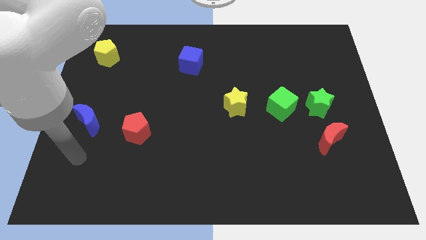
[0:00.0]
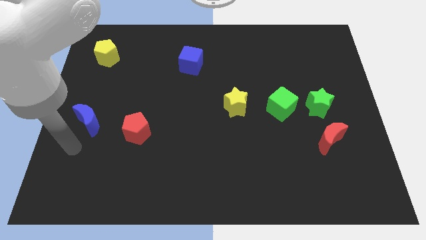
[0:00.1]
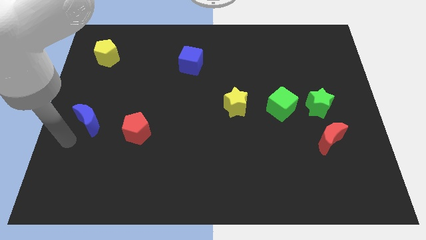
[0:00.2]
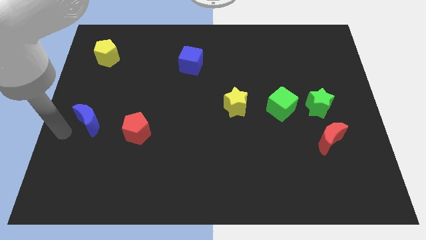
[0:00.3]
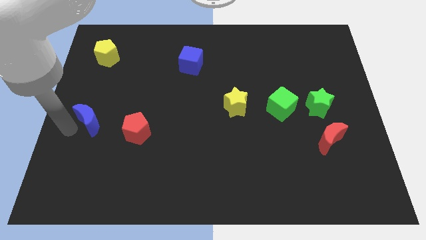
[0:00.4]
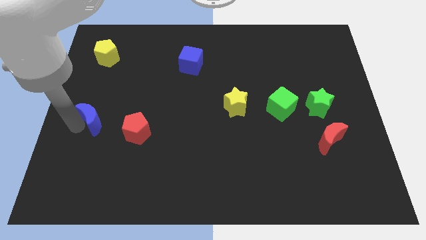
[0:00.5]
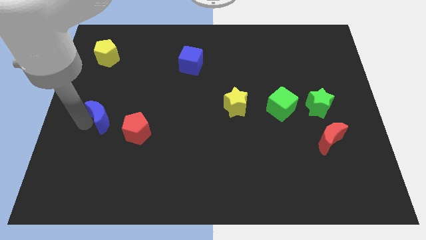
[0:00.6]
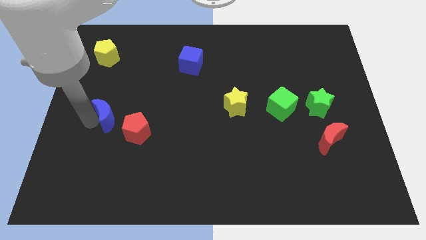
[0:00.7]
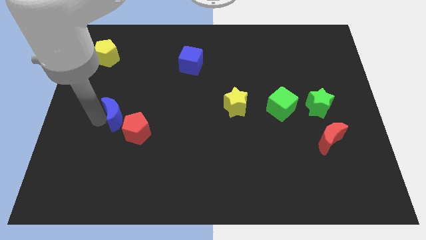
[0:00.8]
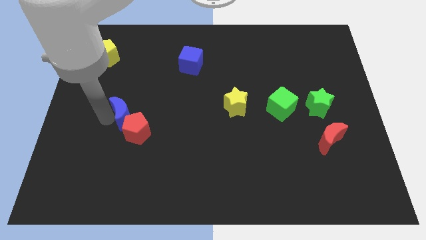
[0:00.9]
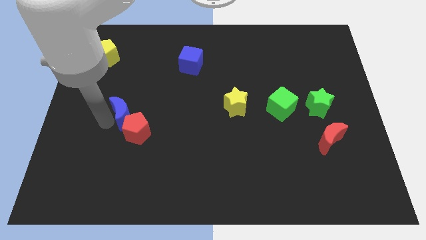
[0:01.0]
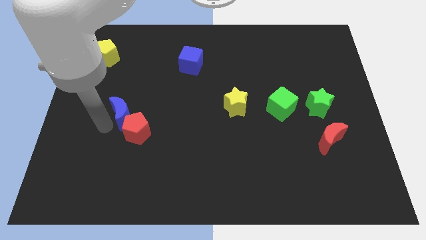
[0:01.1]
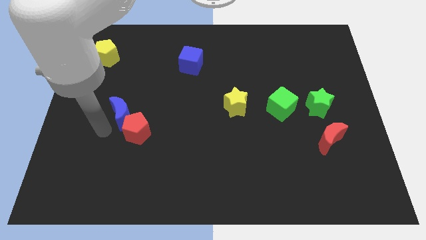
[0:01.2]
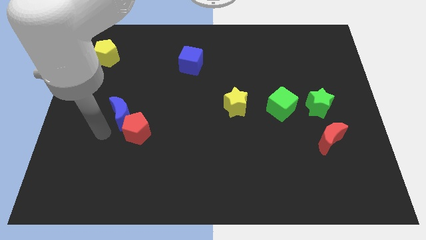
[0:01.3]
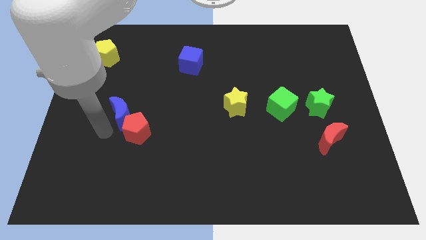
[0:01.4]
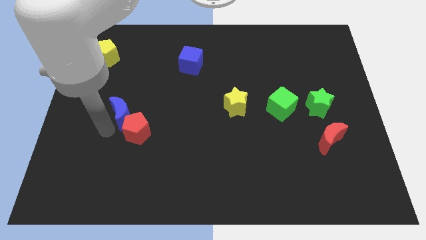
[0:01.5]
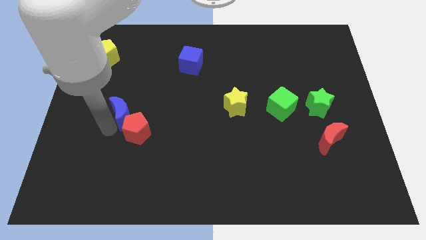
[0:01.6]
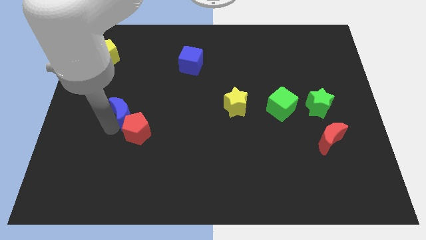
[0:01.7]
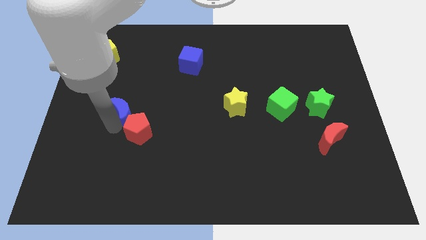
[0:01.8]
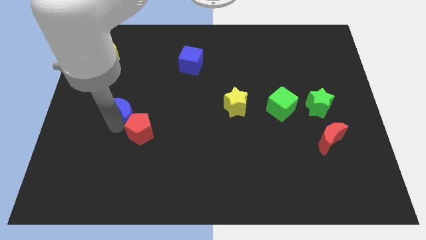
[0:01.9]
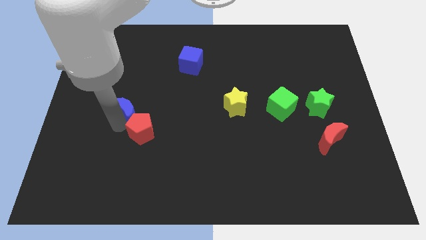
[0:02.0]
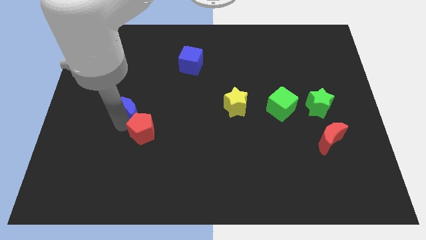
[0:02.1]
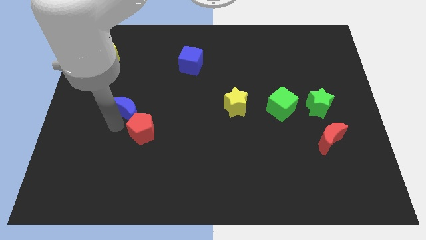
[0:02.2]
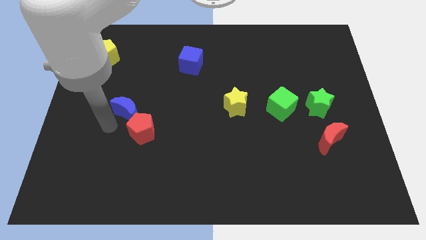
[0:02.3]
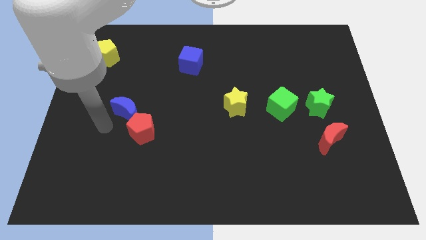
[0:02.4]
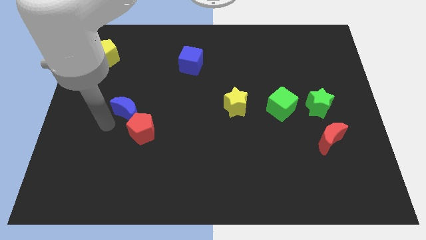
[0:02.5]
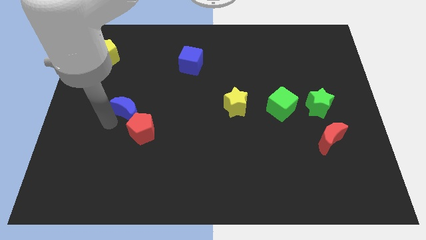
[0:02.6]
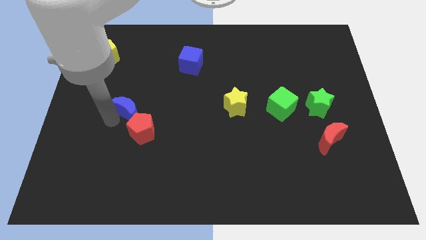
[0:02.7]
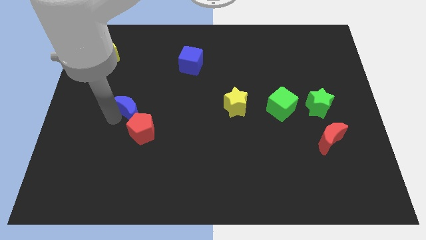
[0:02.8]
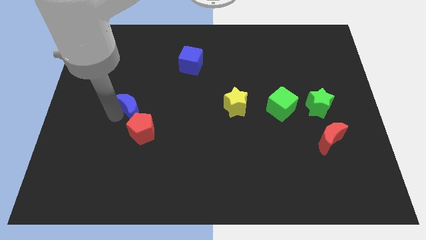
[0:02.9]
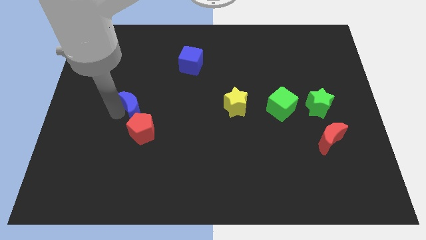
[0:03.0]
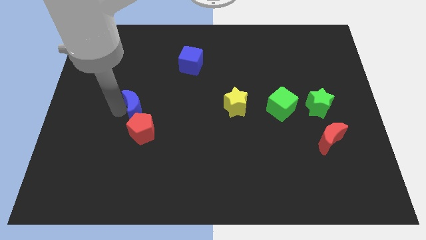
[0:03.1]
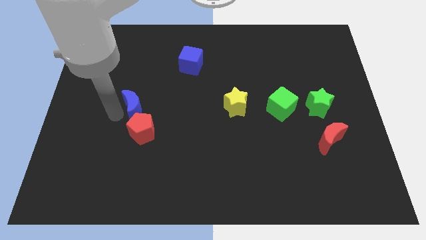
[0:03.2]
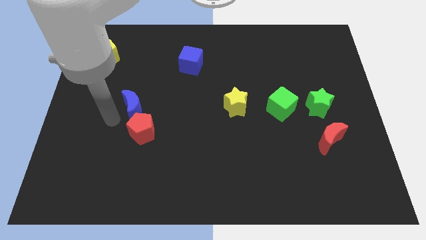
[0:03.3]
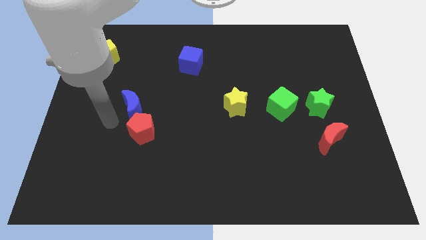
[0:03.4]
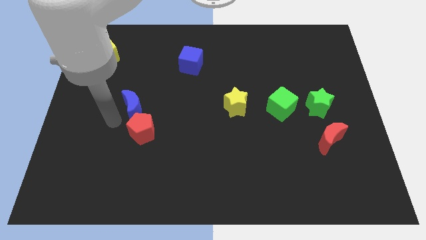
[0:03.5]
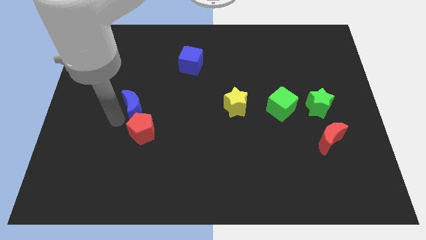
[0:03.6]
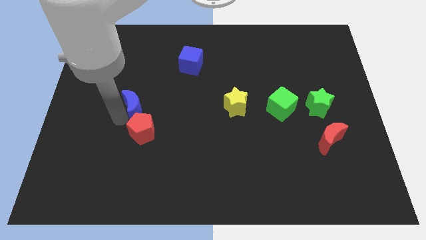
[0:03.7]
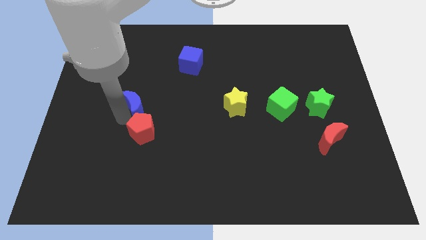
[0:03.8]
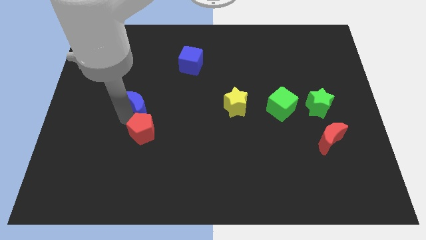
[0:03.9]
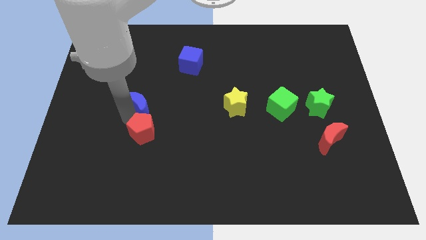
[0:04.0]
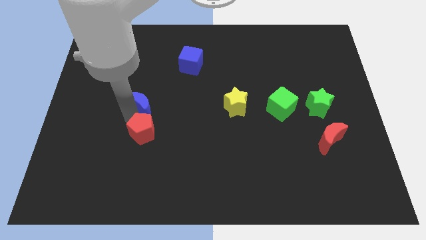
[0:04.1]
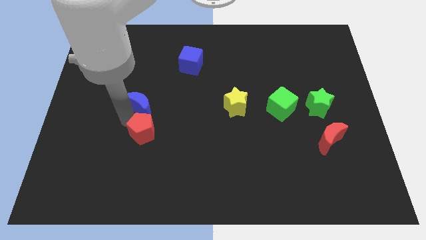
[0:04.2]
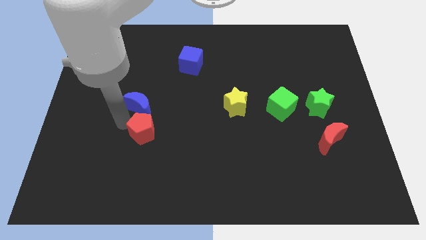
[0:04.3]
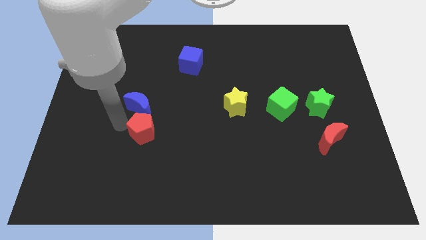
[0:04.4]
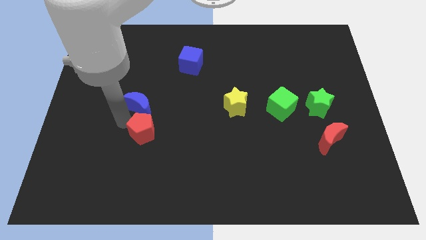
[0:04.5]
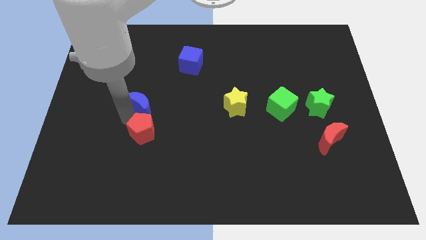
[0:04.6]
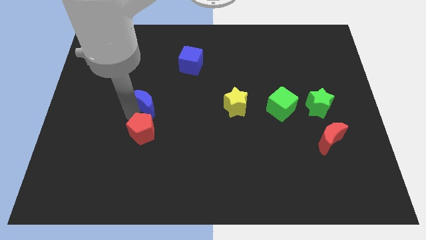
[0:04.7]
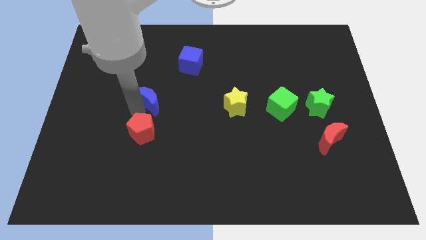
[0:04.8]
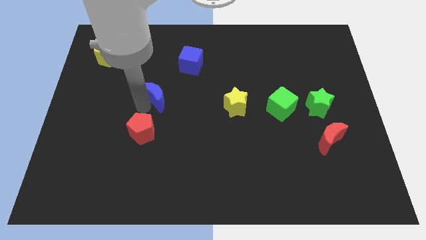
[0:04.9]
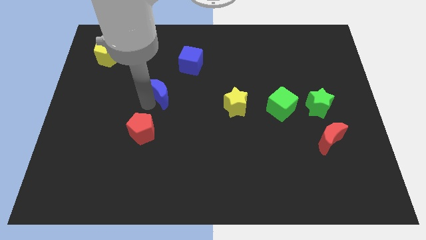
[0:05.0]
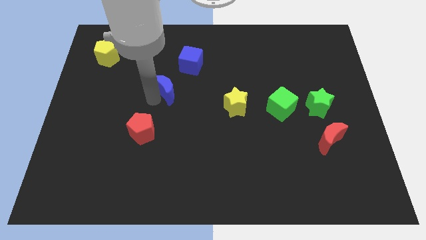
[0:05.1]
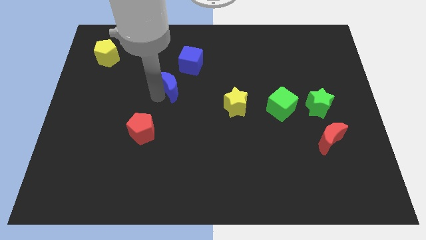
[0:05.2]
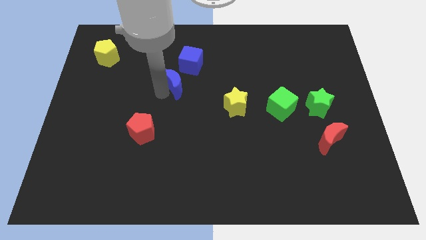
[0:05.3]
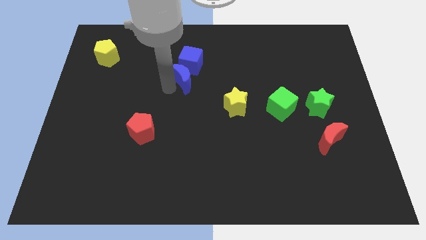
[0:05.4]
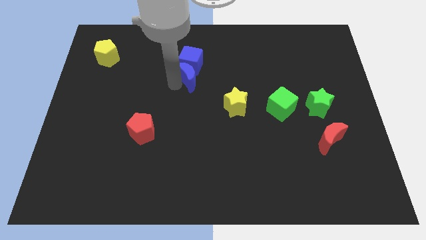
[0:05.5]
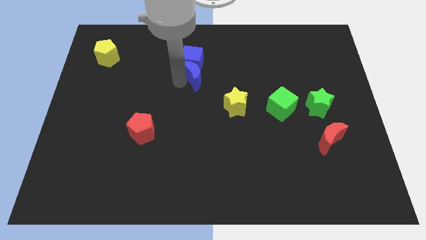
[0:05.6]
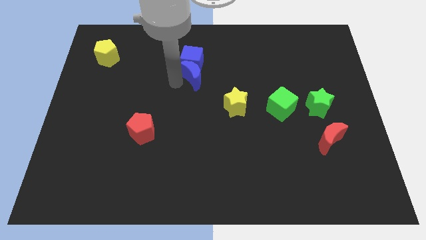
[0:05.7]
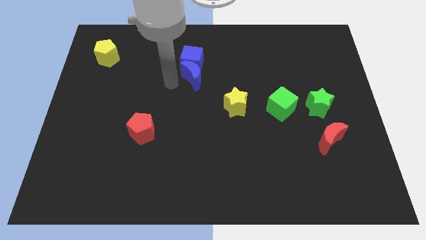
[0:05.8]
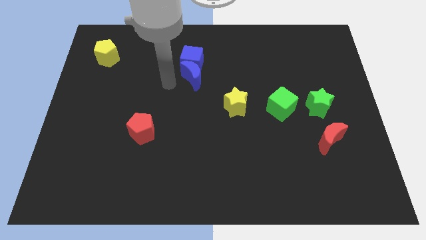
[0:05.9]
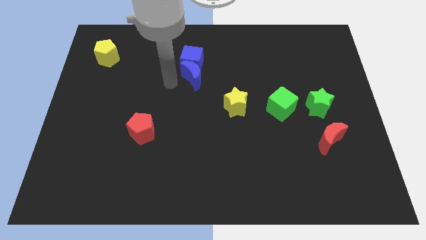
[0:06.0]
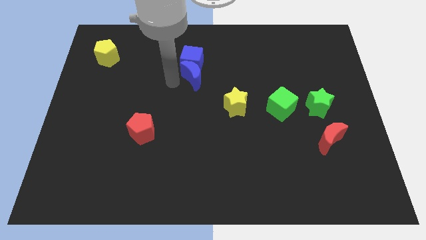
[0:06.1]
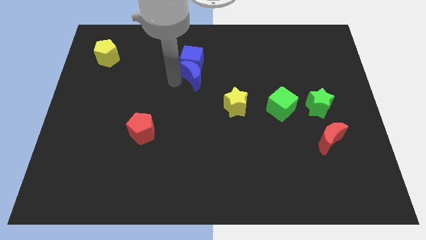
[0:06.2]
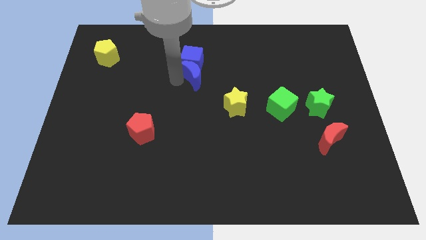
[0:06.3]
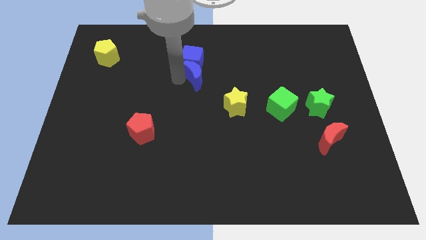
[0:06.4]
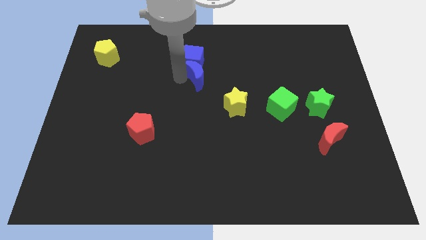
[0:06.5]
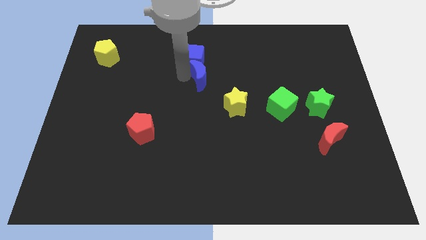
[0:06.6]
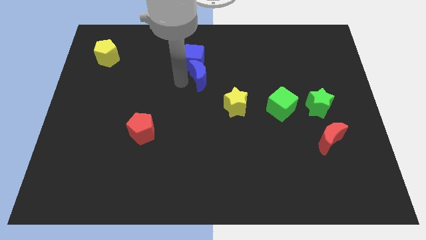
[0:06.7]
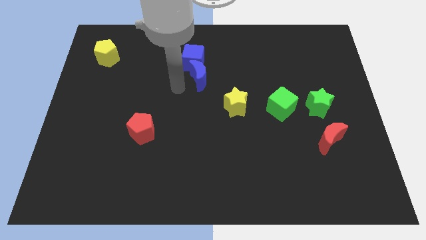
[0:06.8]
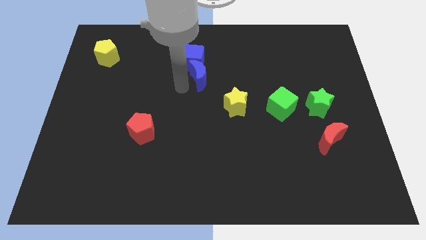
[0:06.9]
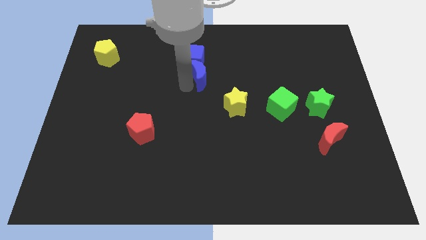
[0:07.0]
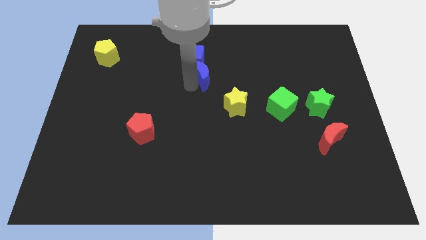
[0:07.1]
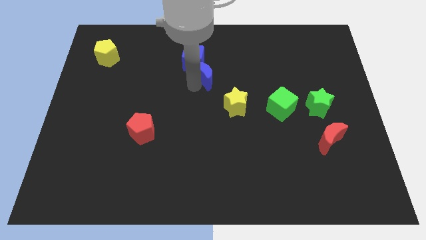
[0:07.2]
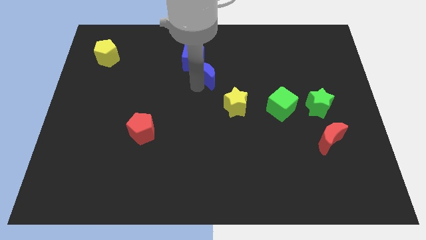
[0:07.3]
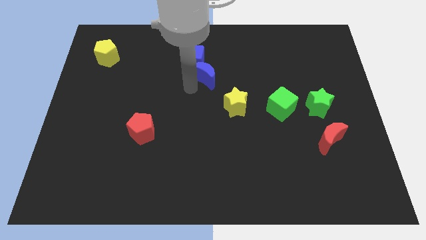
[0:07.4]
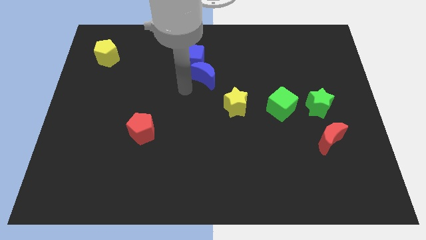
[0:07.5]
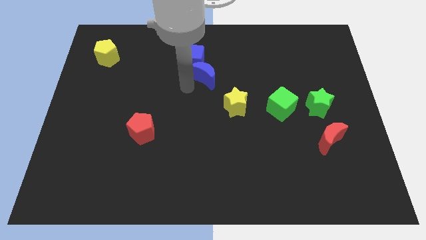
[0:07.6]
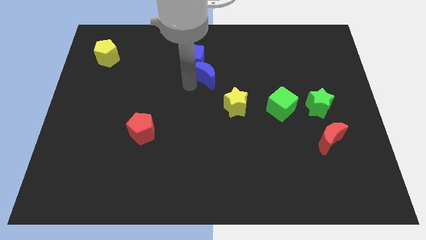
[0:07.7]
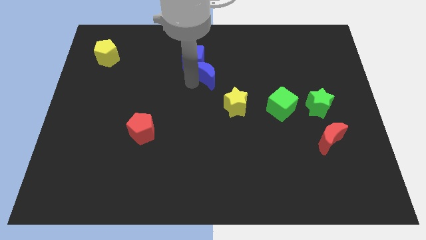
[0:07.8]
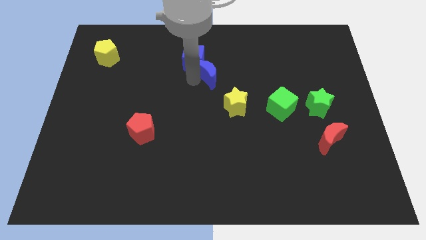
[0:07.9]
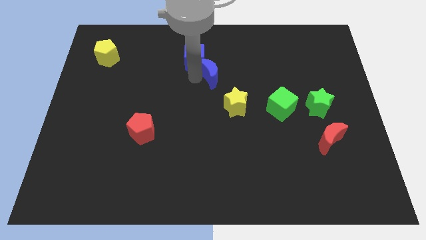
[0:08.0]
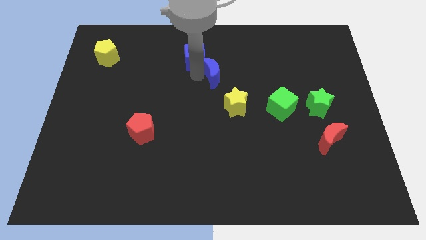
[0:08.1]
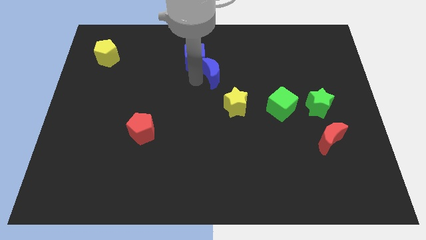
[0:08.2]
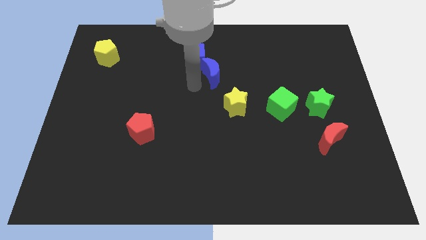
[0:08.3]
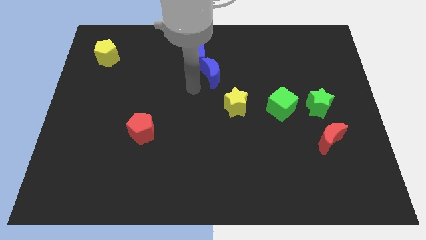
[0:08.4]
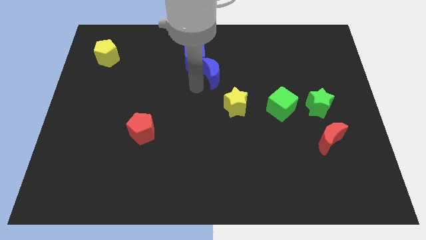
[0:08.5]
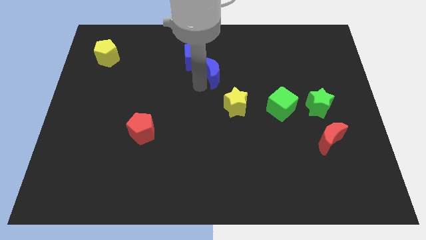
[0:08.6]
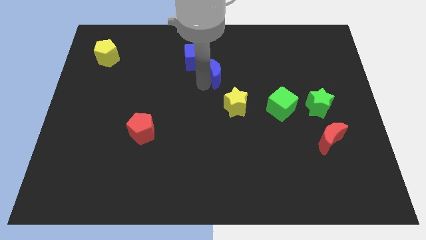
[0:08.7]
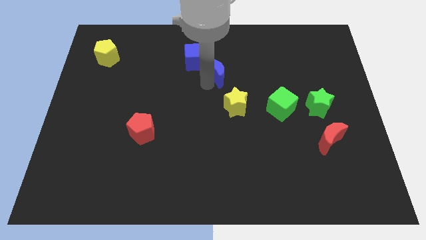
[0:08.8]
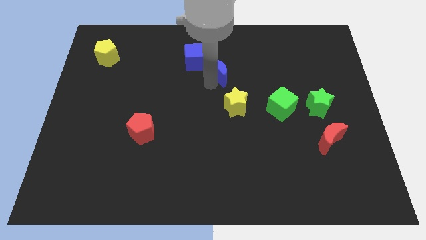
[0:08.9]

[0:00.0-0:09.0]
put the blue moon just right of the blue cube
